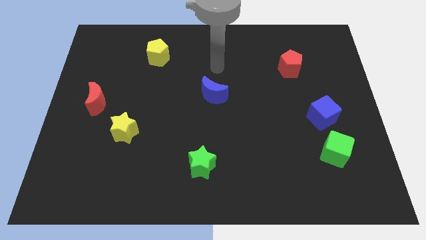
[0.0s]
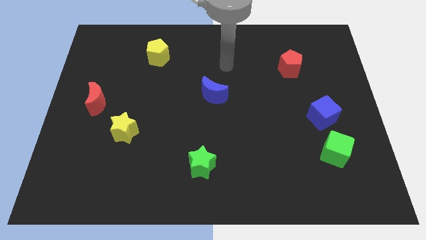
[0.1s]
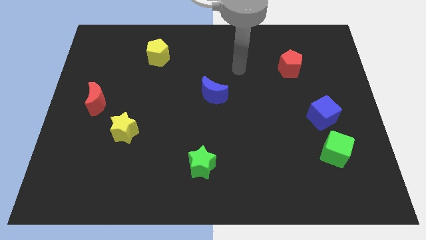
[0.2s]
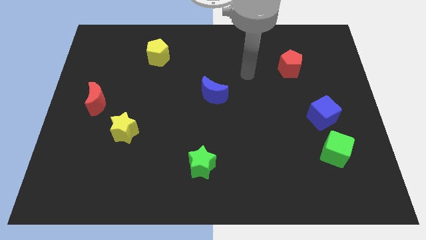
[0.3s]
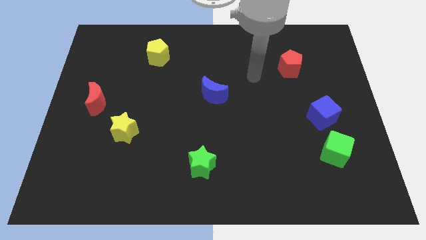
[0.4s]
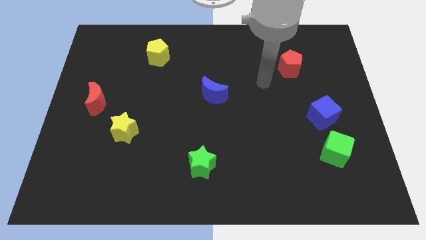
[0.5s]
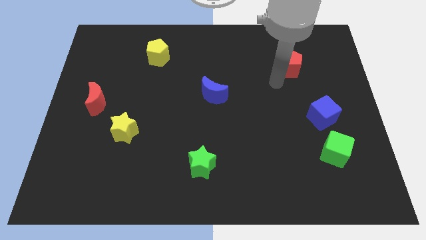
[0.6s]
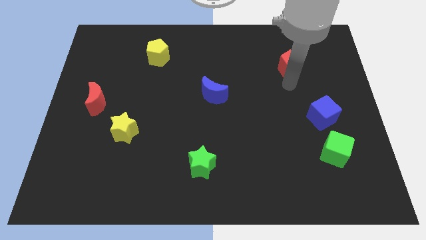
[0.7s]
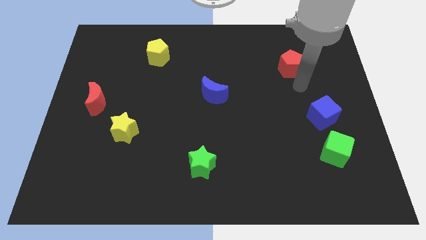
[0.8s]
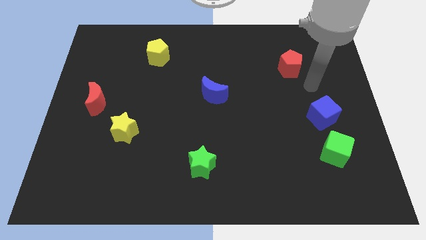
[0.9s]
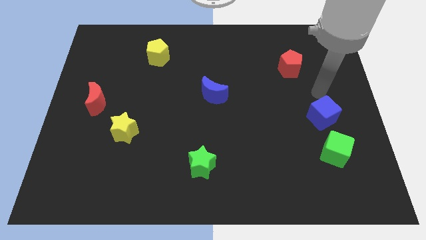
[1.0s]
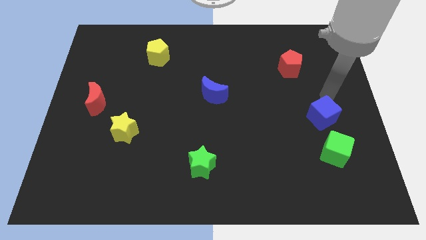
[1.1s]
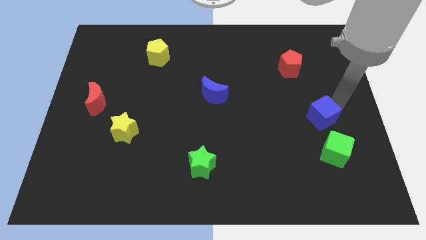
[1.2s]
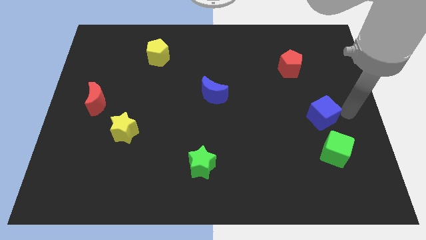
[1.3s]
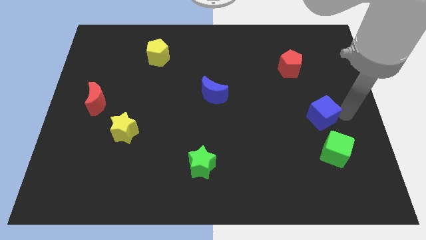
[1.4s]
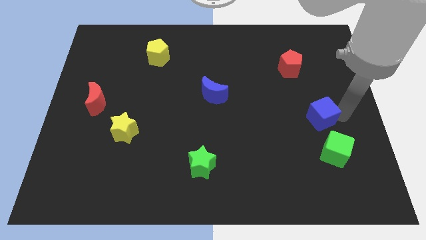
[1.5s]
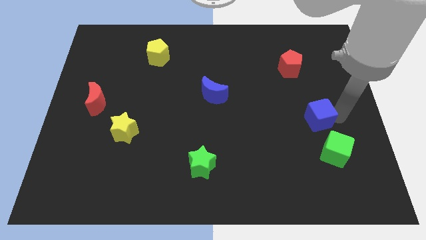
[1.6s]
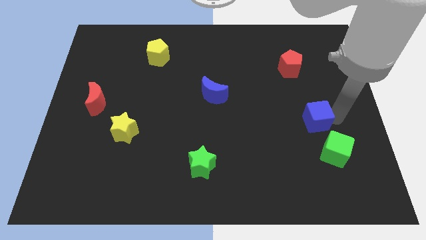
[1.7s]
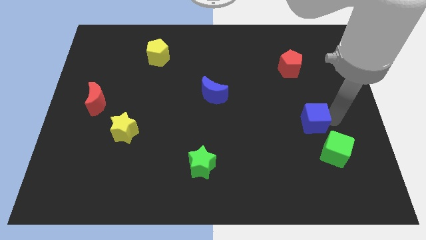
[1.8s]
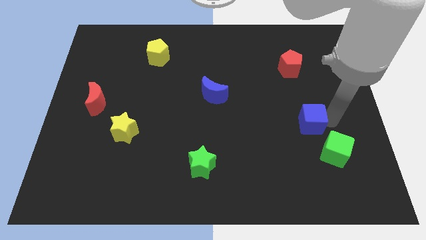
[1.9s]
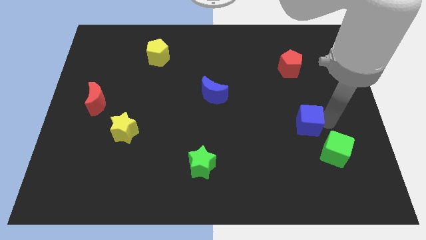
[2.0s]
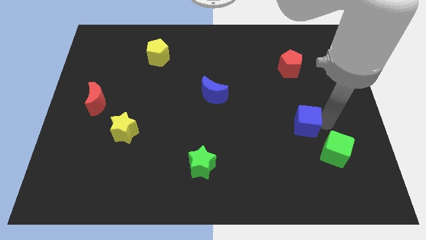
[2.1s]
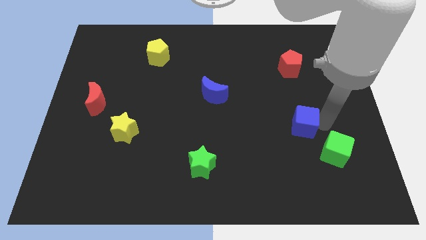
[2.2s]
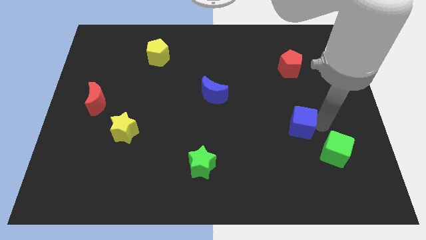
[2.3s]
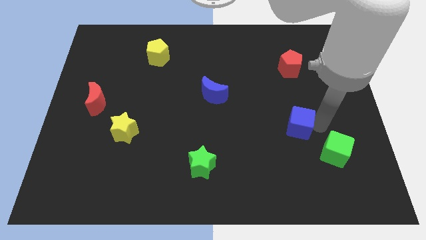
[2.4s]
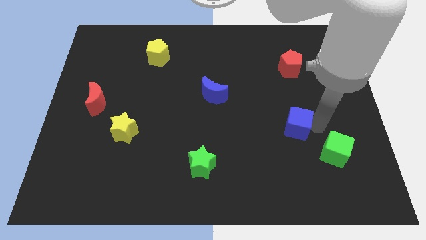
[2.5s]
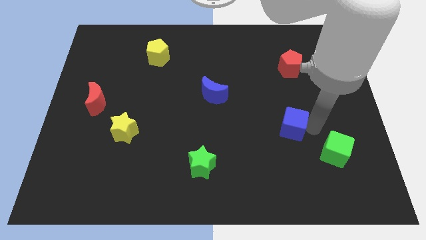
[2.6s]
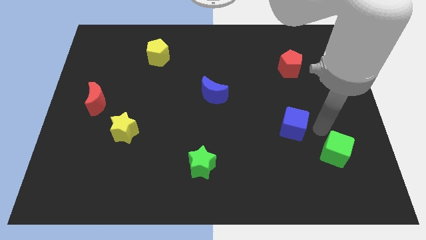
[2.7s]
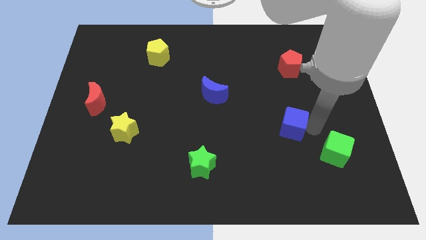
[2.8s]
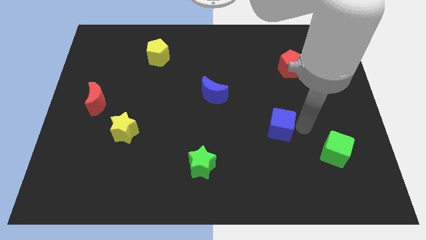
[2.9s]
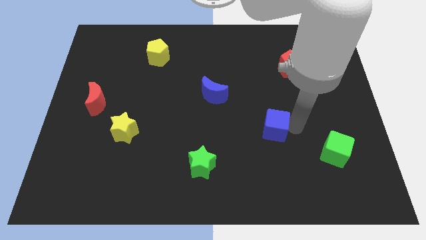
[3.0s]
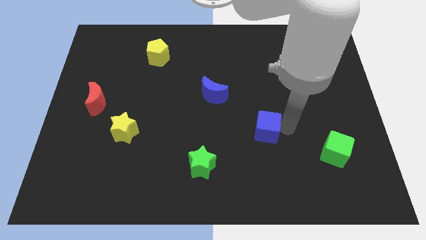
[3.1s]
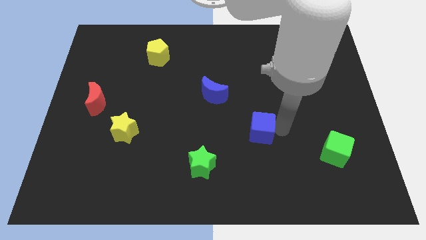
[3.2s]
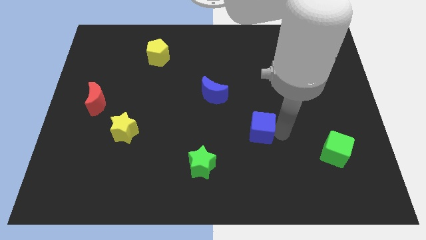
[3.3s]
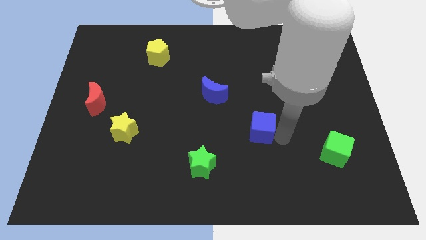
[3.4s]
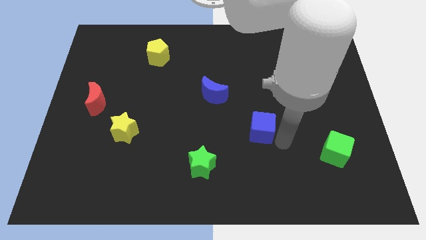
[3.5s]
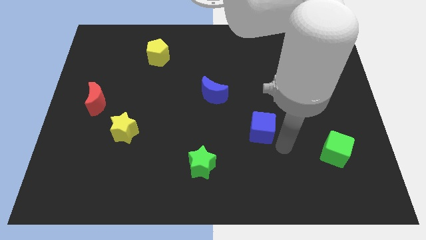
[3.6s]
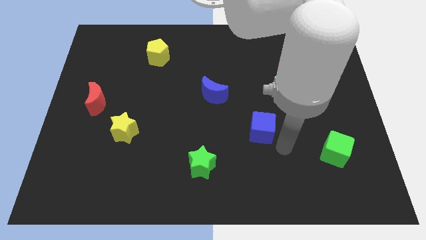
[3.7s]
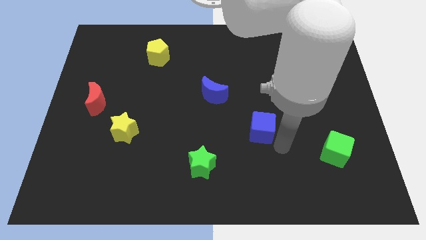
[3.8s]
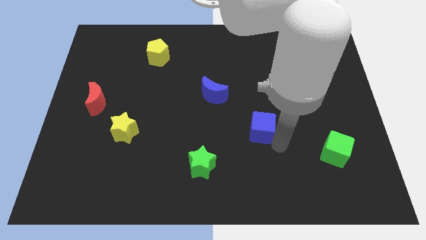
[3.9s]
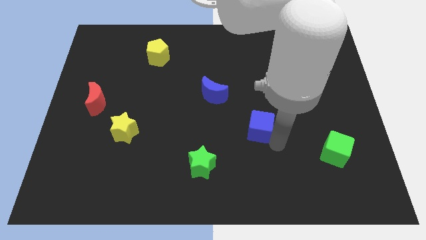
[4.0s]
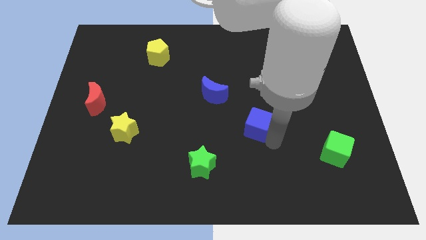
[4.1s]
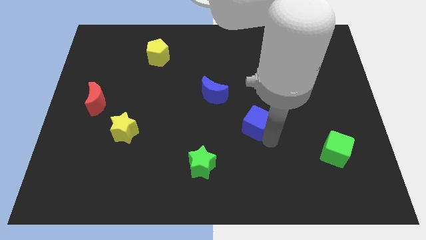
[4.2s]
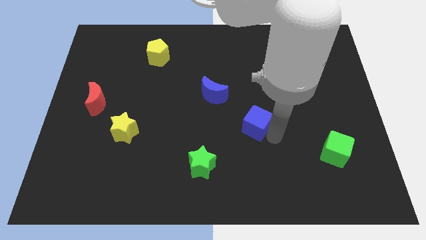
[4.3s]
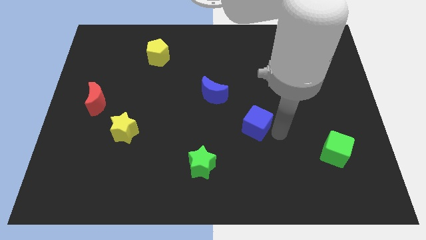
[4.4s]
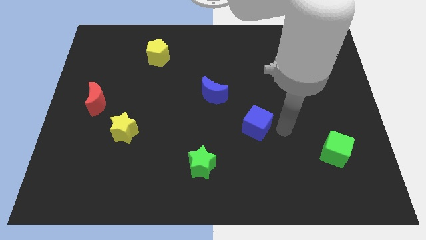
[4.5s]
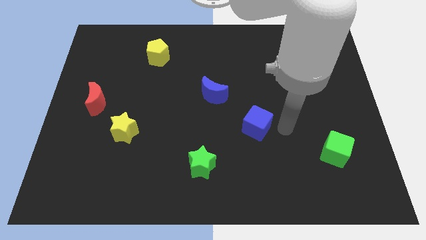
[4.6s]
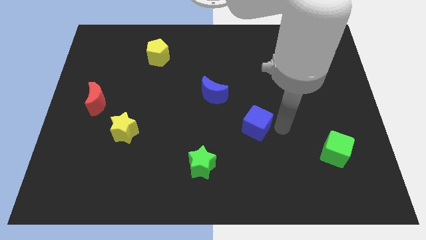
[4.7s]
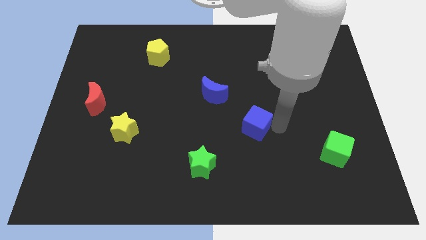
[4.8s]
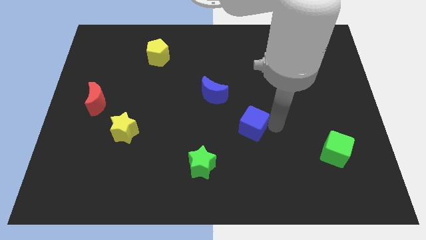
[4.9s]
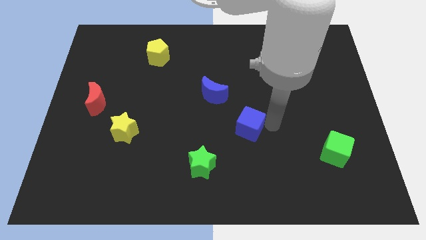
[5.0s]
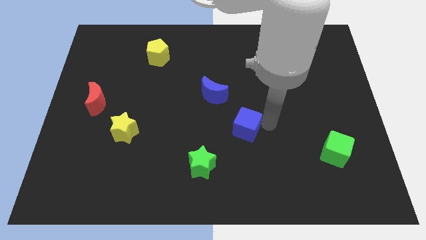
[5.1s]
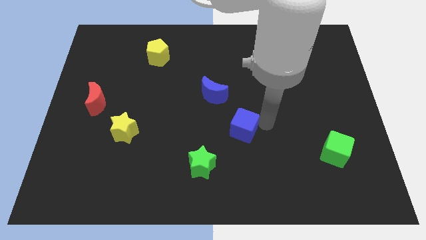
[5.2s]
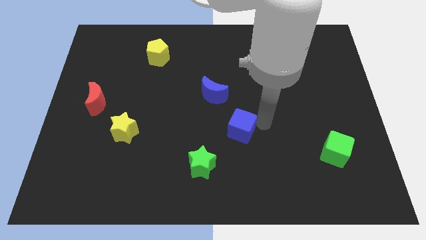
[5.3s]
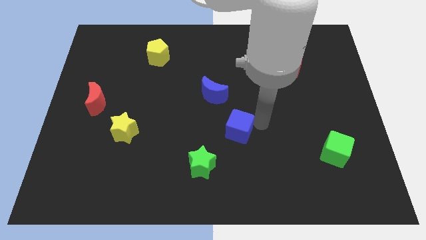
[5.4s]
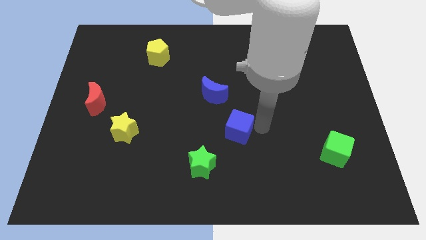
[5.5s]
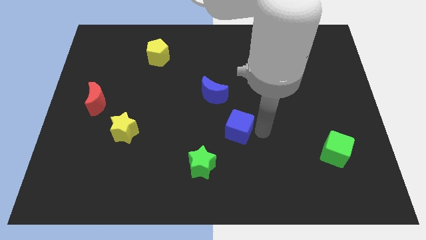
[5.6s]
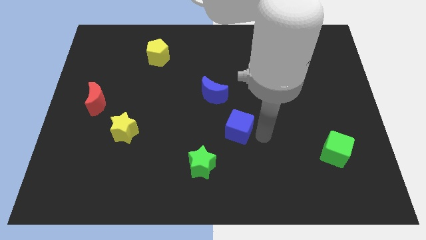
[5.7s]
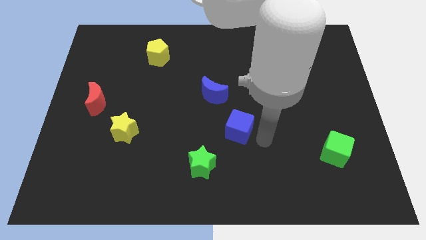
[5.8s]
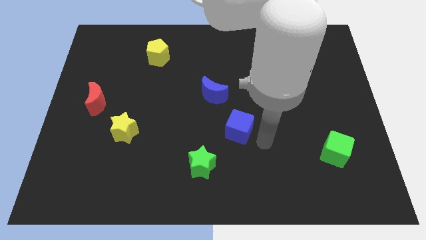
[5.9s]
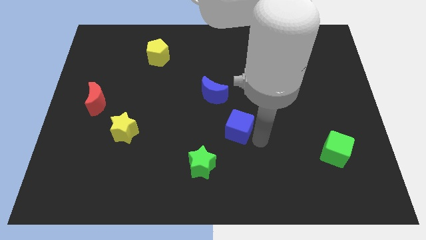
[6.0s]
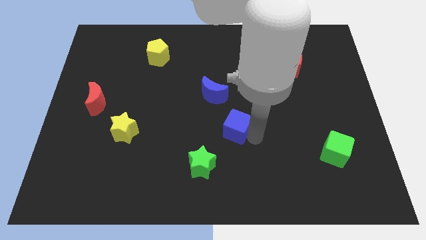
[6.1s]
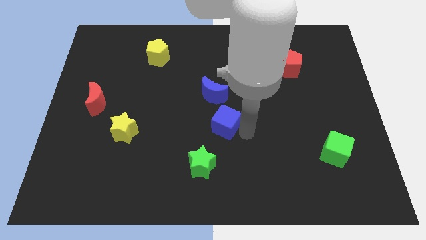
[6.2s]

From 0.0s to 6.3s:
push the blue cube to the left

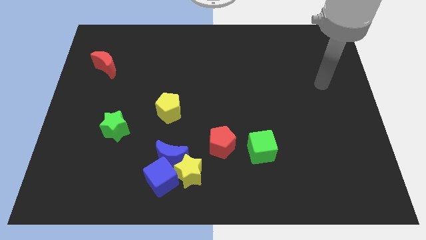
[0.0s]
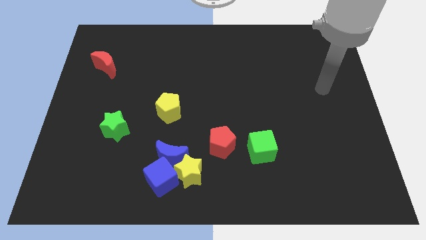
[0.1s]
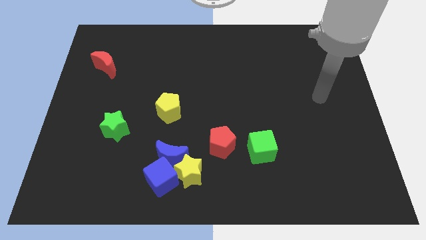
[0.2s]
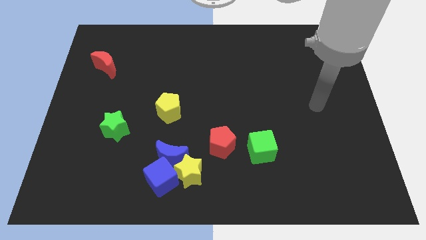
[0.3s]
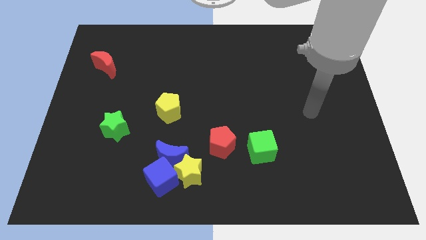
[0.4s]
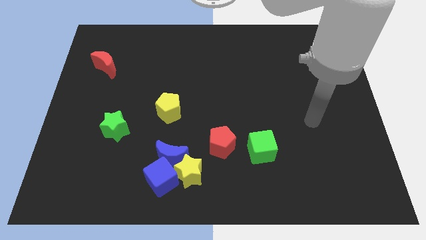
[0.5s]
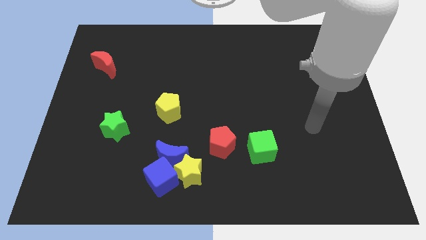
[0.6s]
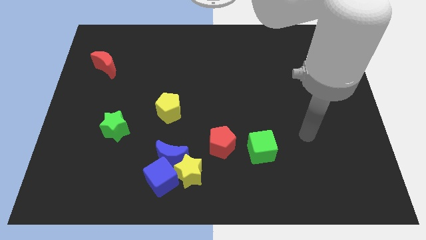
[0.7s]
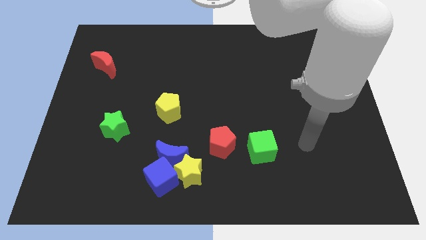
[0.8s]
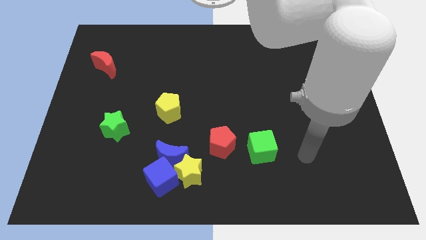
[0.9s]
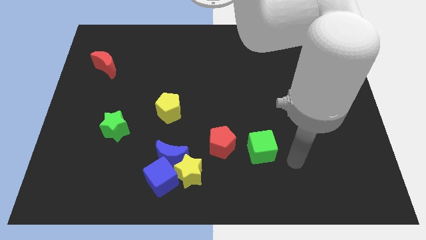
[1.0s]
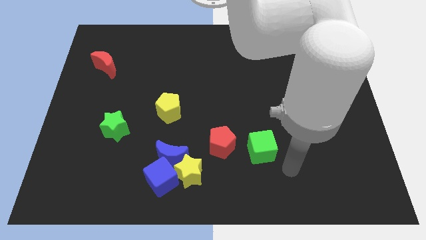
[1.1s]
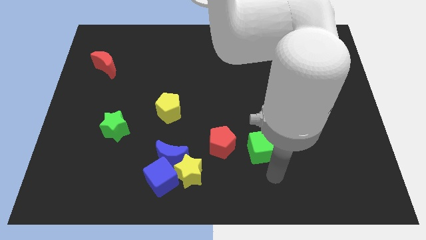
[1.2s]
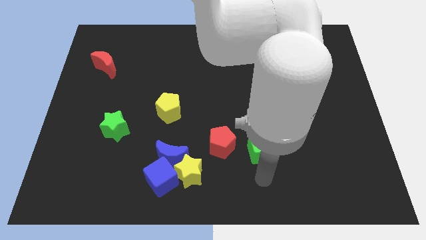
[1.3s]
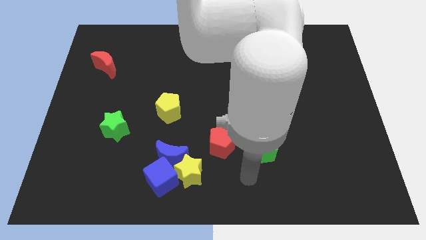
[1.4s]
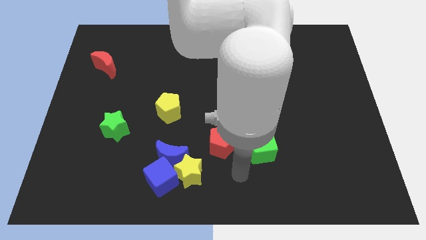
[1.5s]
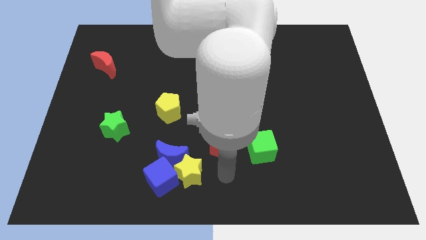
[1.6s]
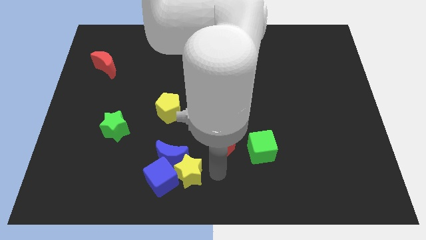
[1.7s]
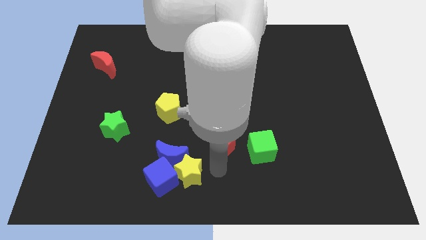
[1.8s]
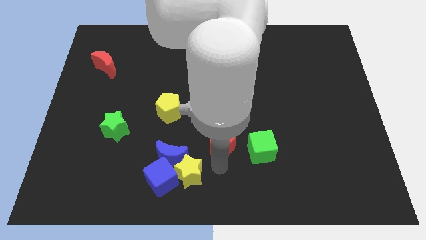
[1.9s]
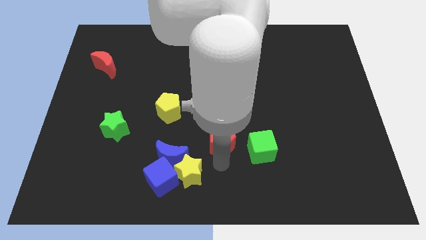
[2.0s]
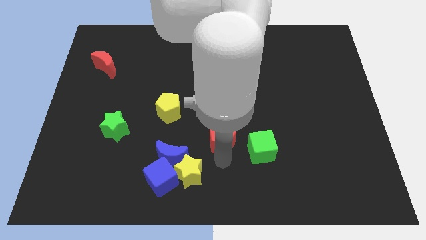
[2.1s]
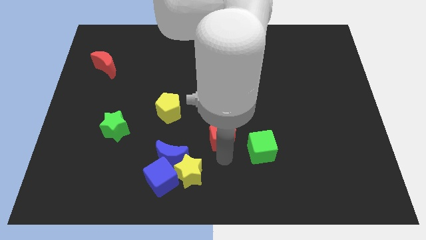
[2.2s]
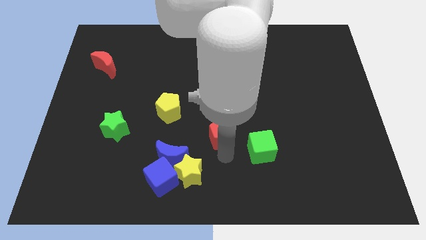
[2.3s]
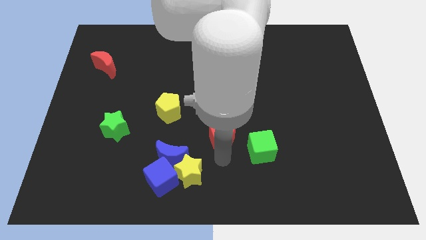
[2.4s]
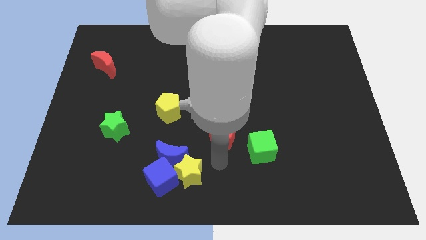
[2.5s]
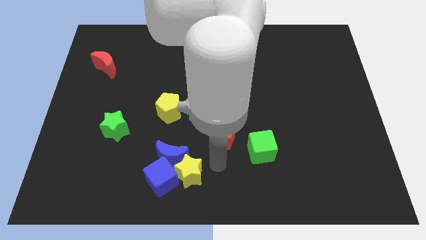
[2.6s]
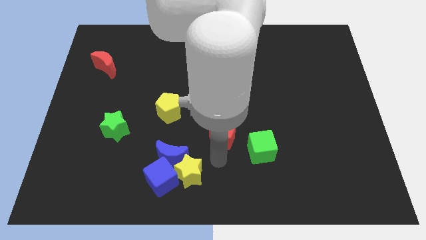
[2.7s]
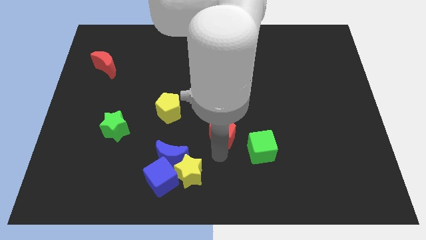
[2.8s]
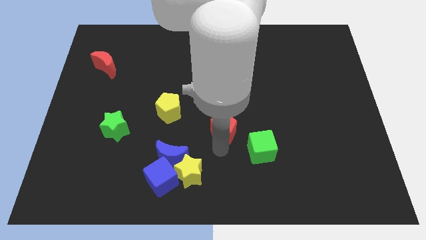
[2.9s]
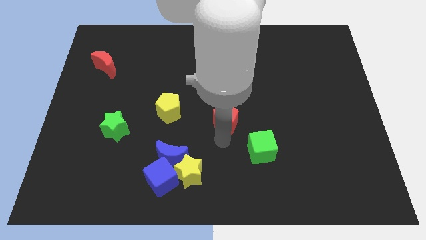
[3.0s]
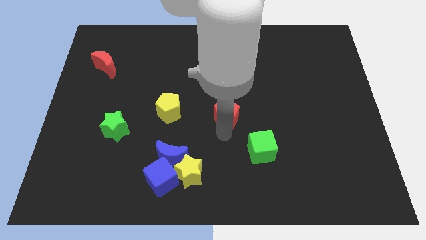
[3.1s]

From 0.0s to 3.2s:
push the red pentagon up a little
